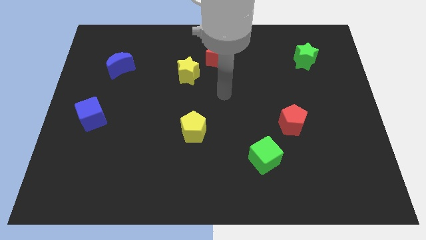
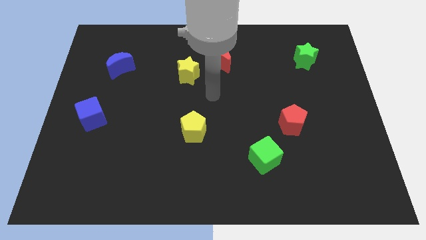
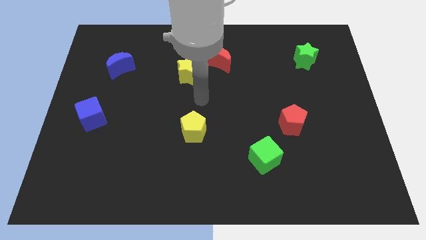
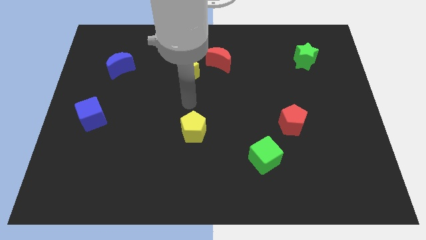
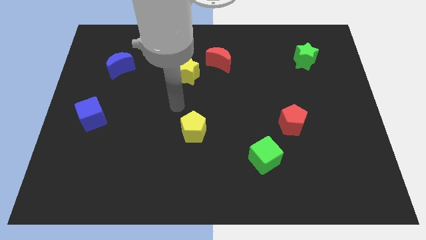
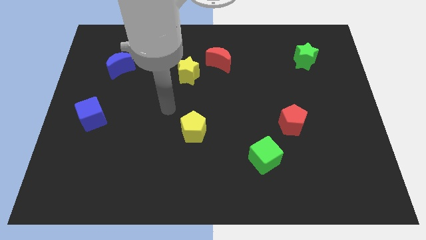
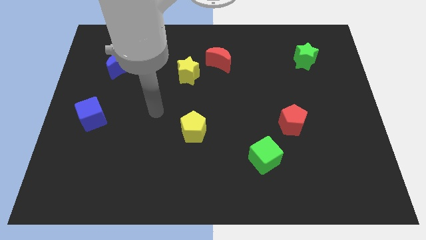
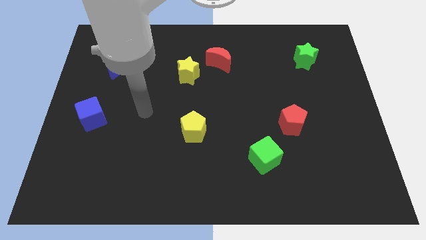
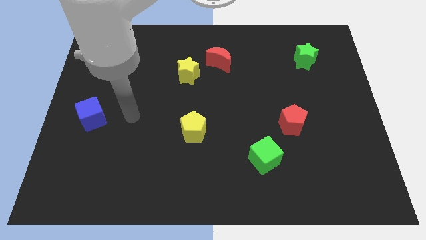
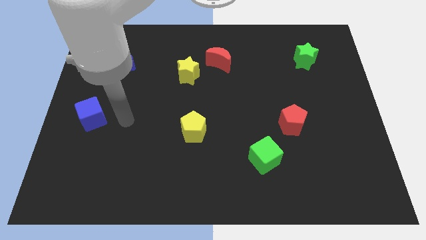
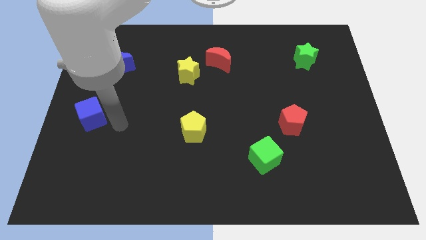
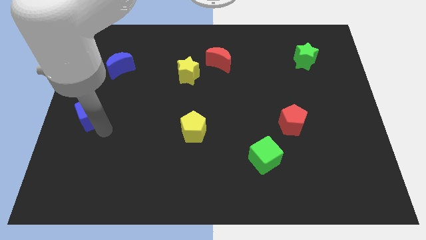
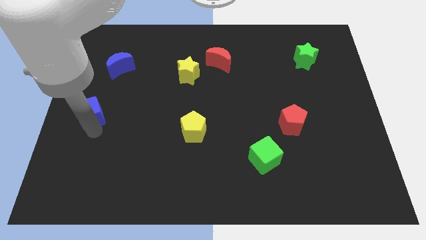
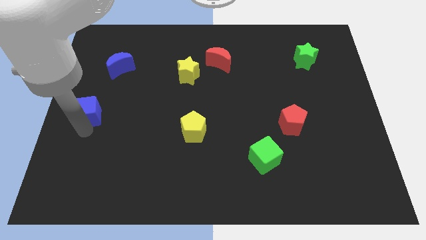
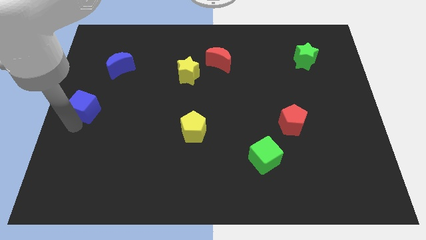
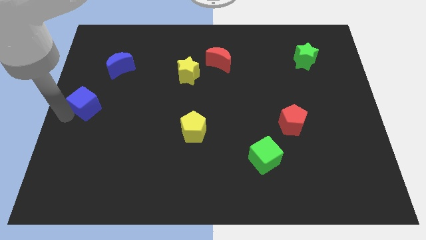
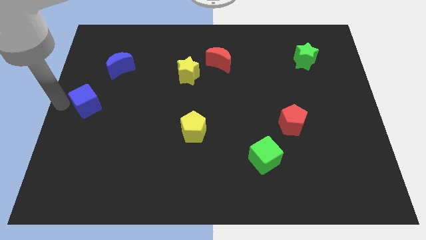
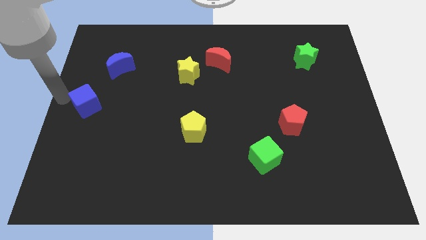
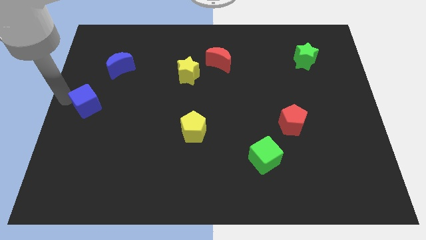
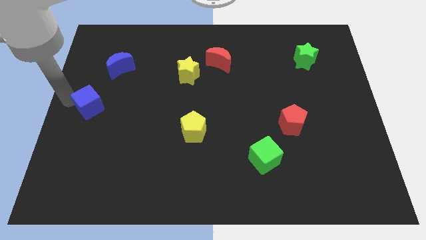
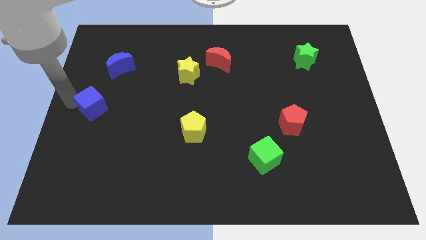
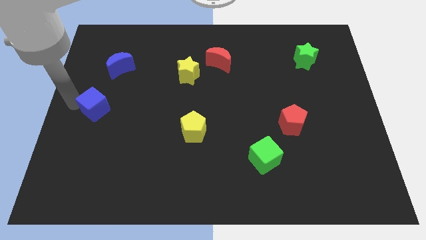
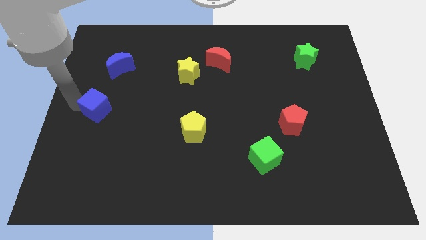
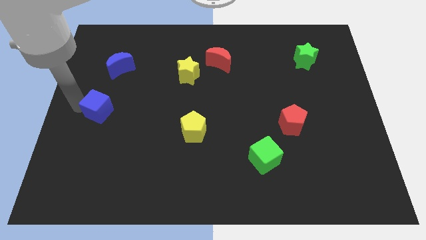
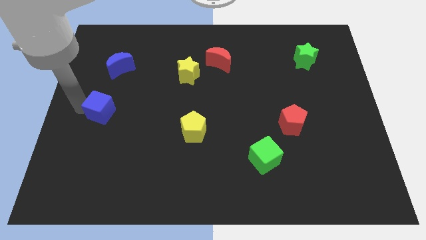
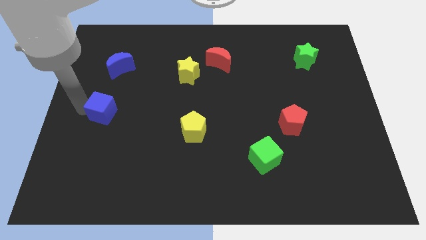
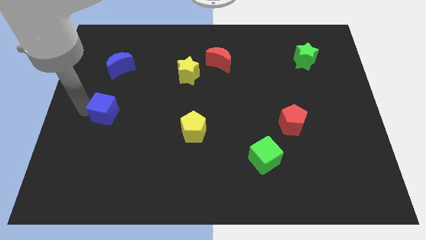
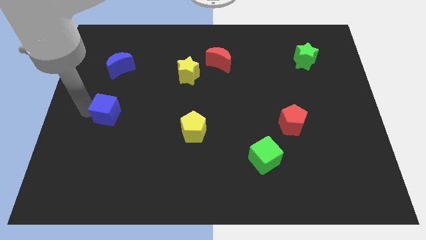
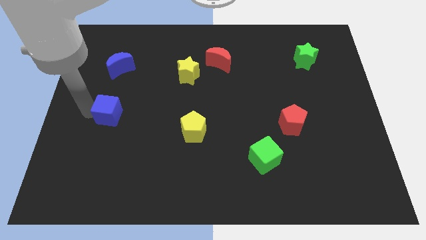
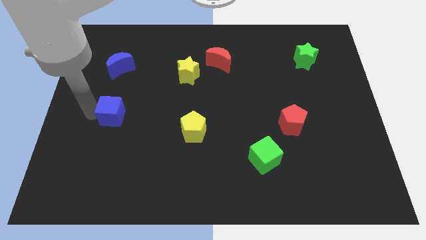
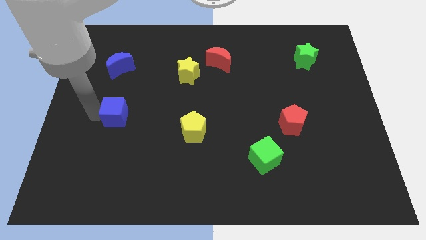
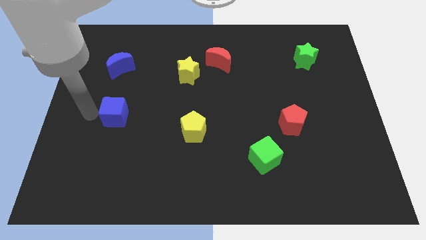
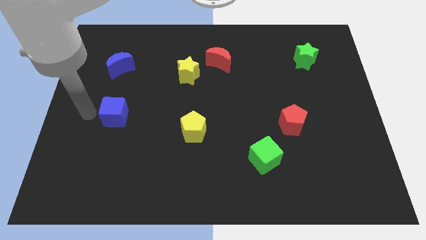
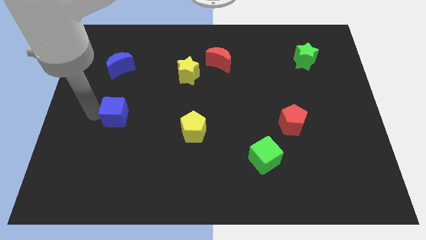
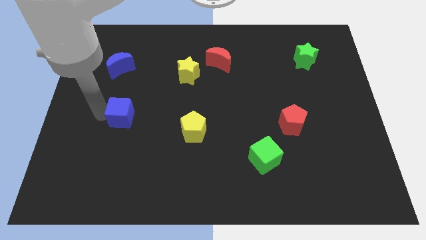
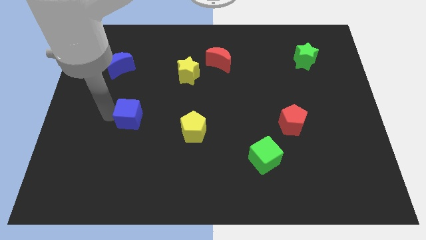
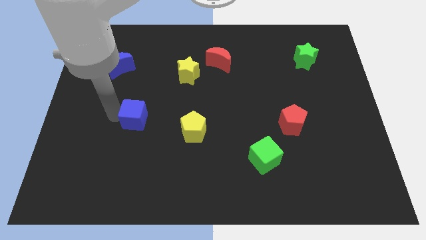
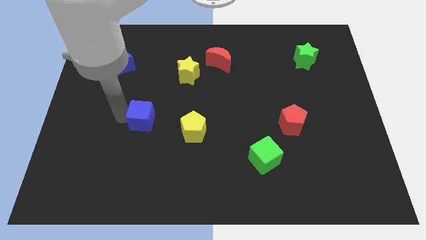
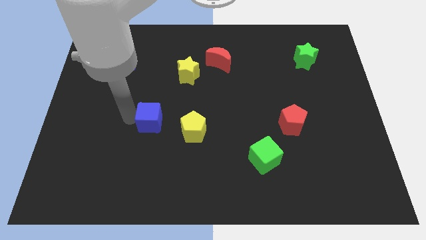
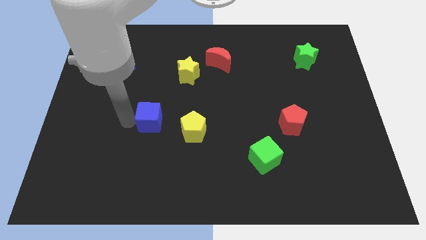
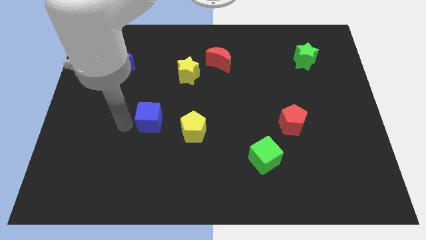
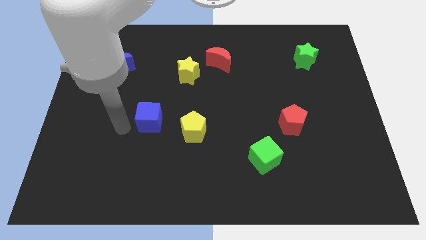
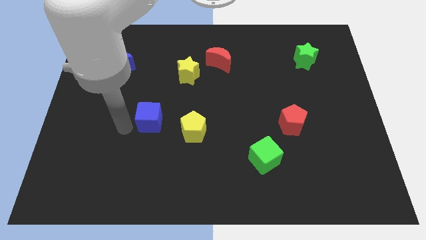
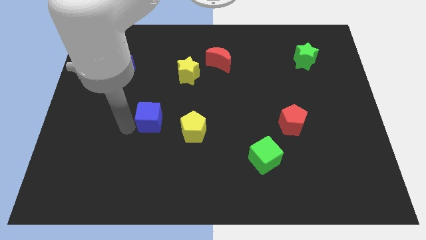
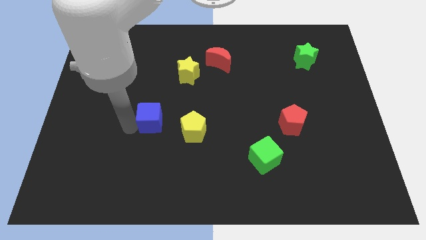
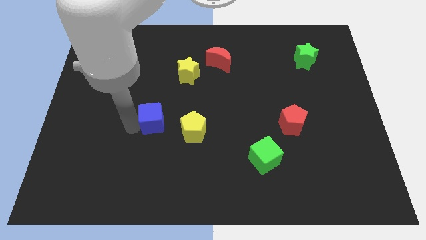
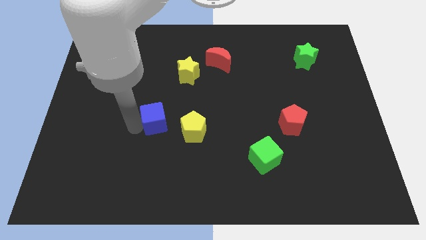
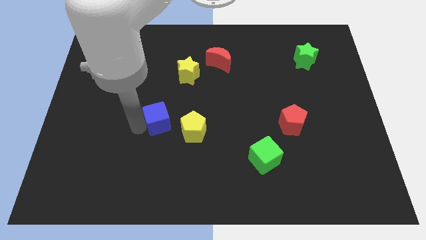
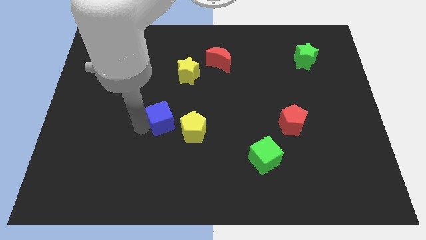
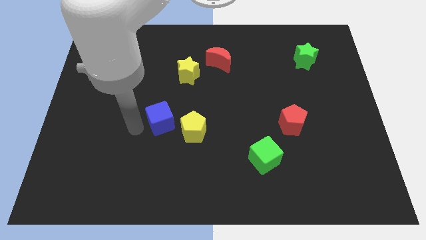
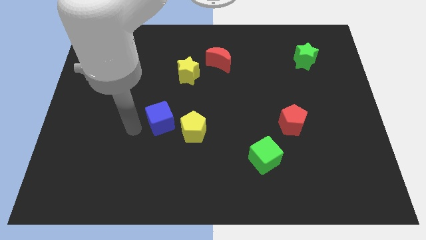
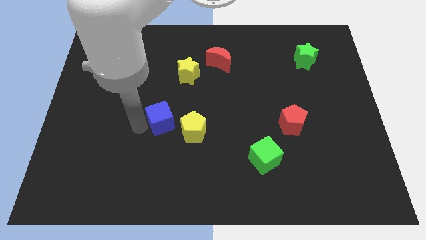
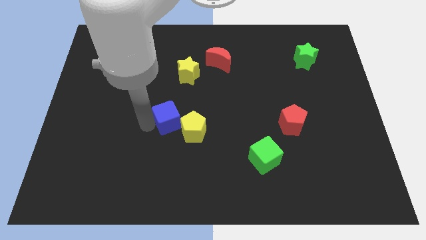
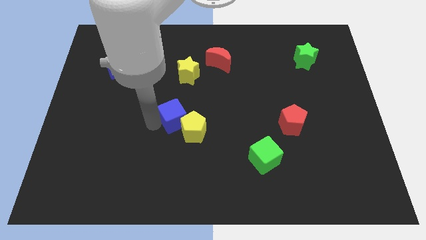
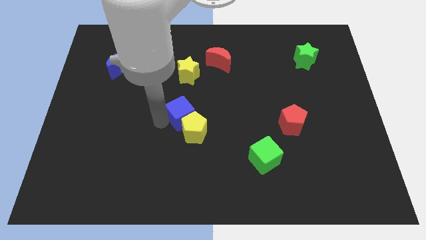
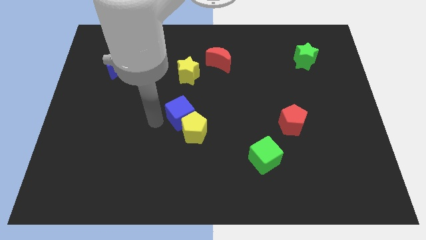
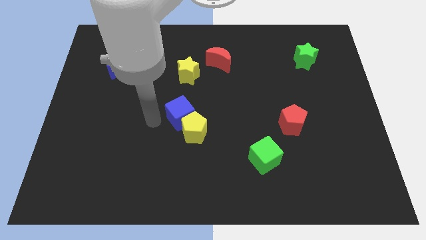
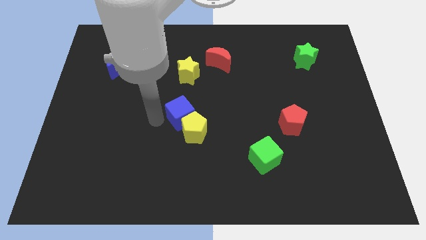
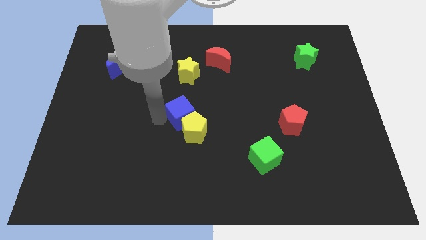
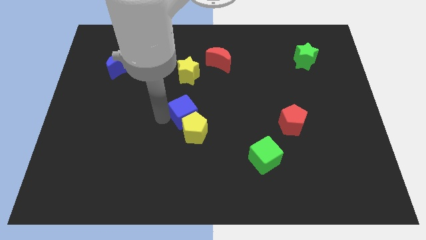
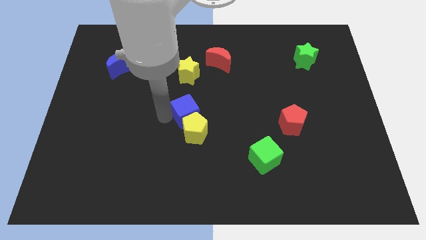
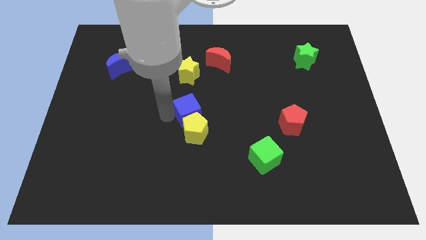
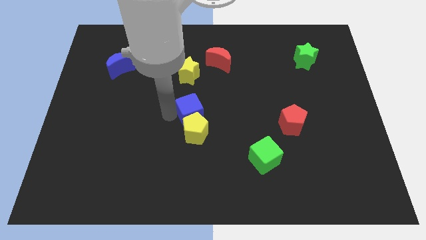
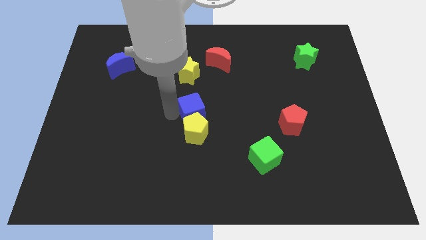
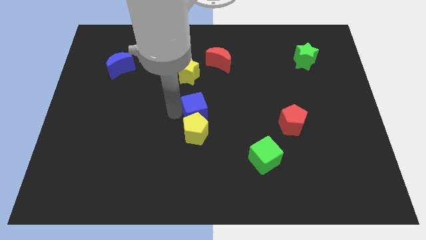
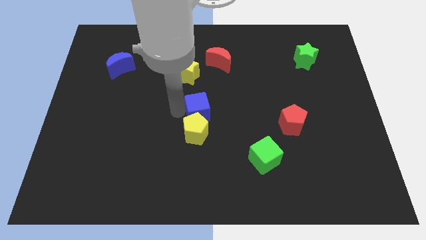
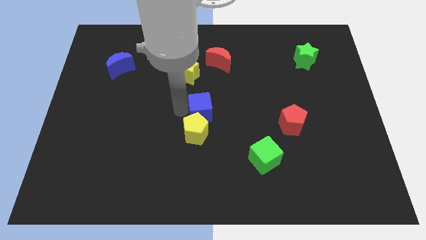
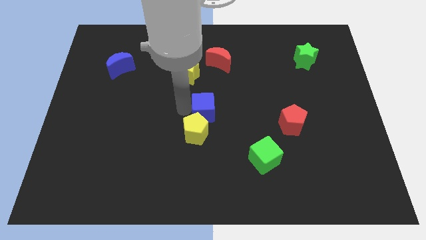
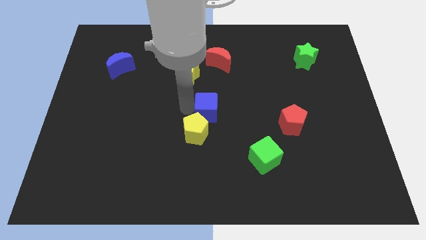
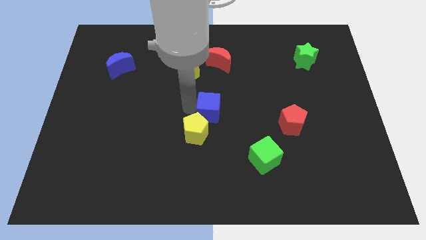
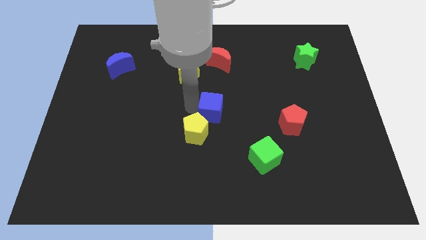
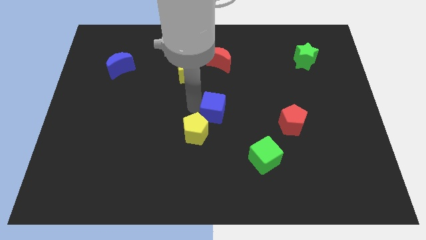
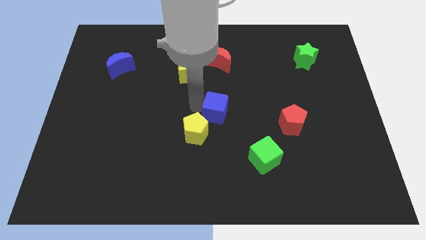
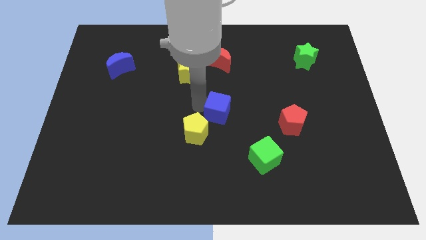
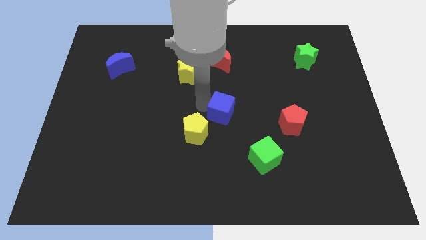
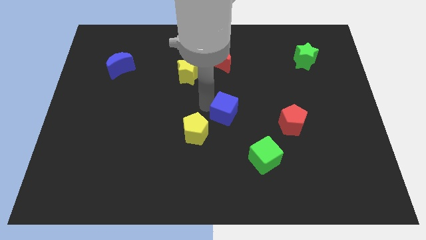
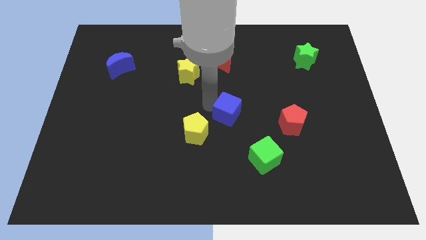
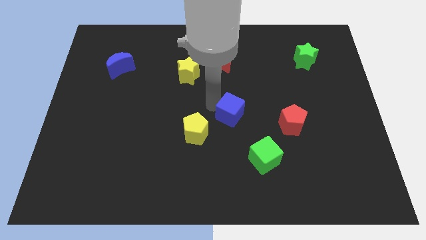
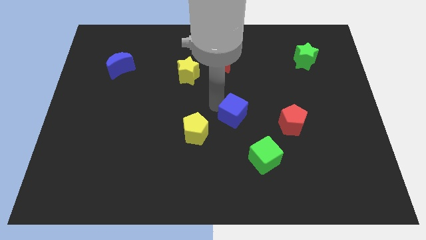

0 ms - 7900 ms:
push the blue cube to the right of the yellow pentagon
